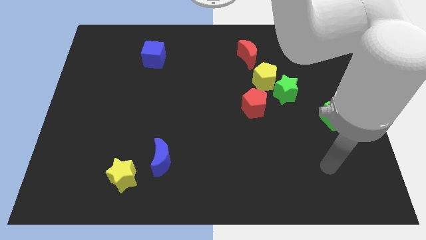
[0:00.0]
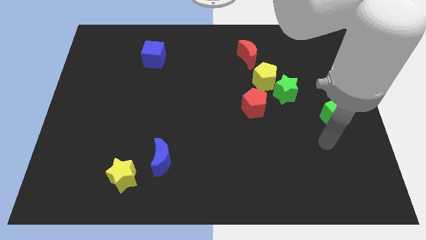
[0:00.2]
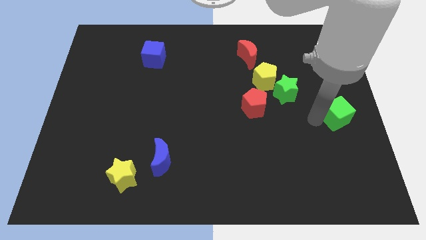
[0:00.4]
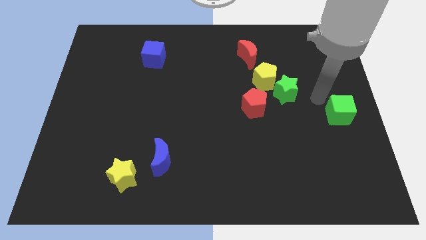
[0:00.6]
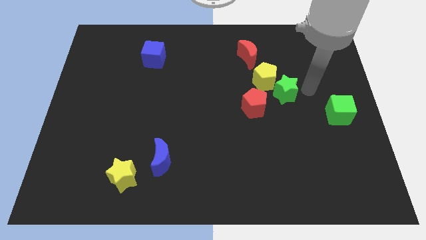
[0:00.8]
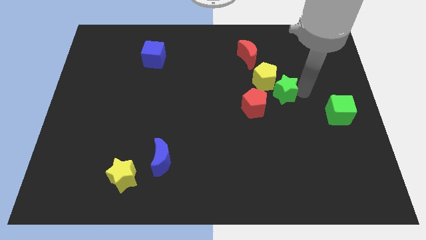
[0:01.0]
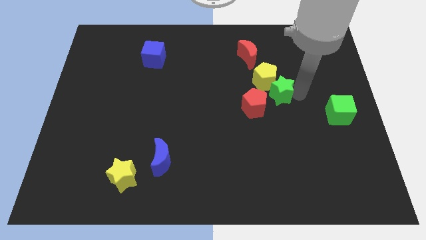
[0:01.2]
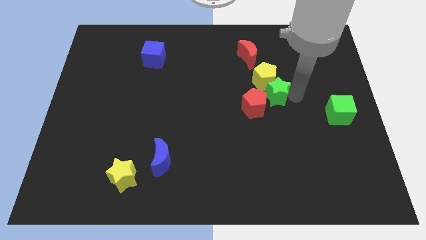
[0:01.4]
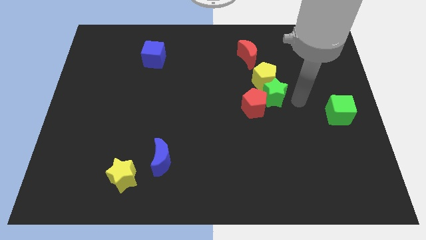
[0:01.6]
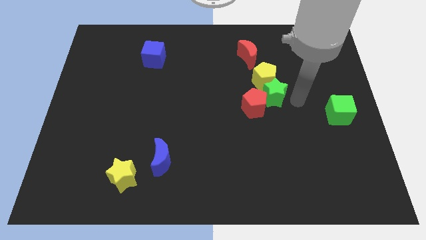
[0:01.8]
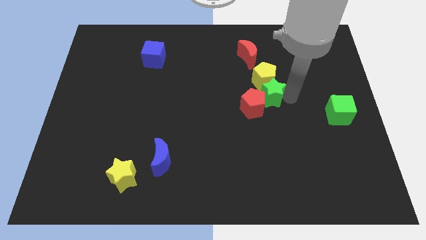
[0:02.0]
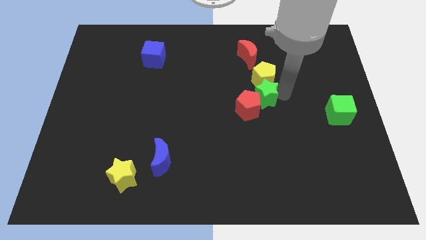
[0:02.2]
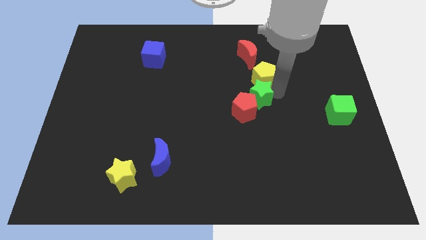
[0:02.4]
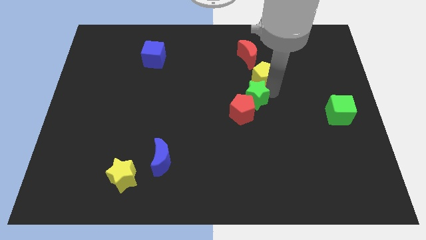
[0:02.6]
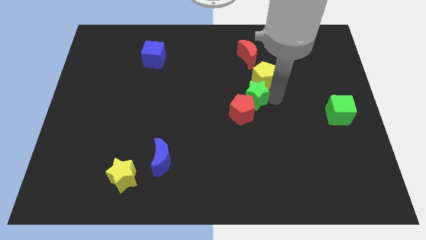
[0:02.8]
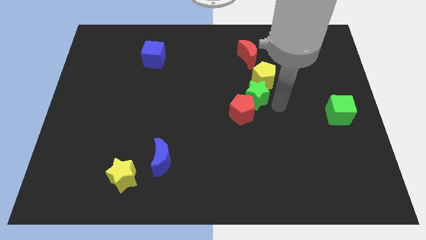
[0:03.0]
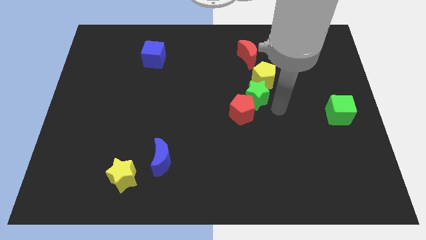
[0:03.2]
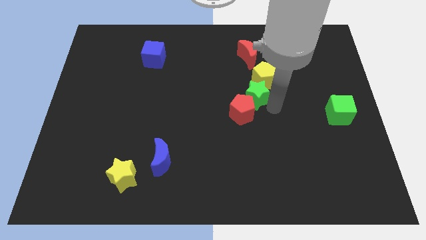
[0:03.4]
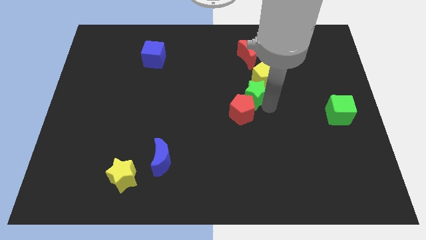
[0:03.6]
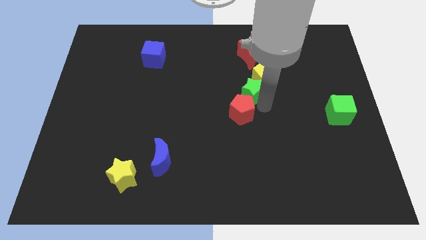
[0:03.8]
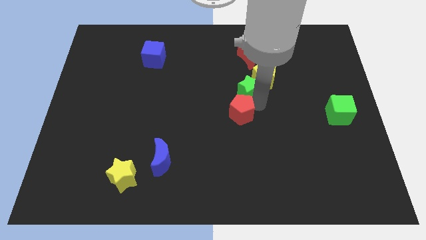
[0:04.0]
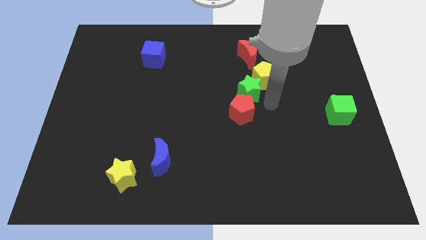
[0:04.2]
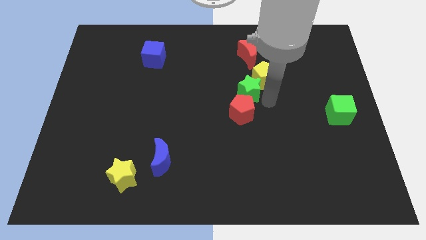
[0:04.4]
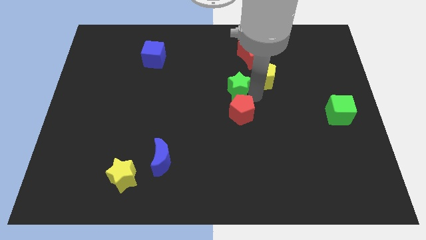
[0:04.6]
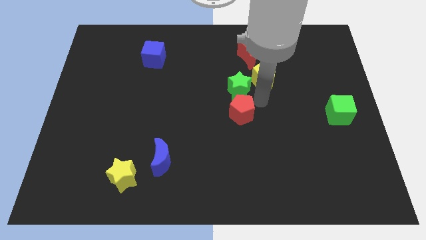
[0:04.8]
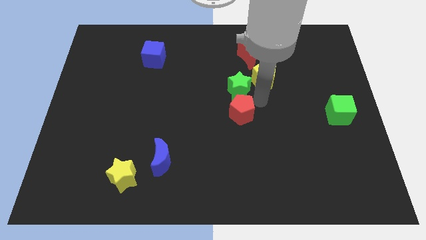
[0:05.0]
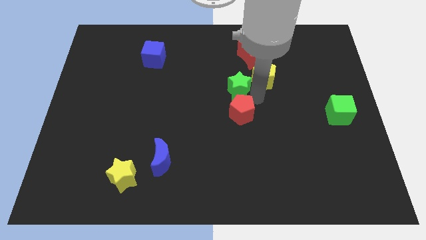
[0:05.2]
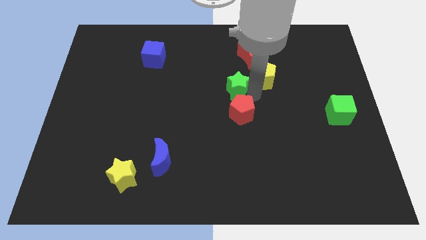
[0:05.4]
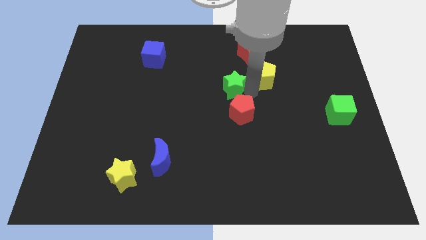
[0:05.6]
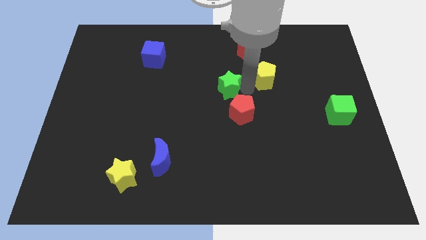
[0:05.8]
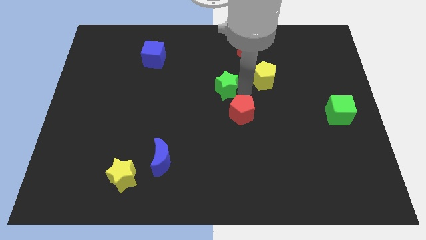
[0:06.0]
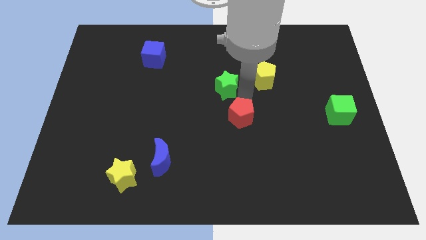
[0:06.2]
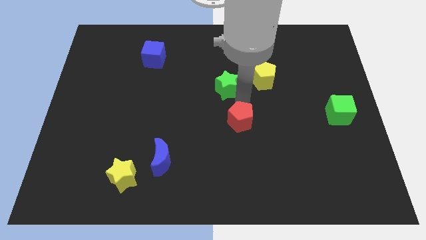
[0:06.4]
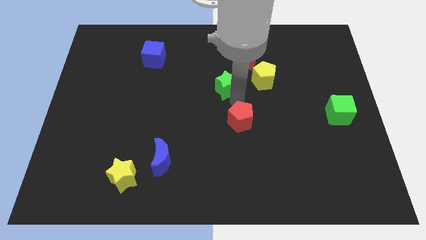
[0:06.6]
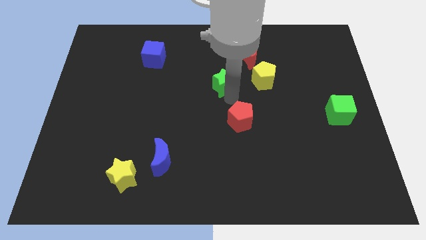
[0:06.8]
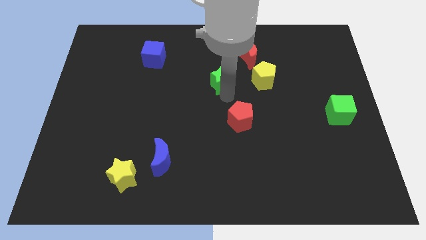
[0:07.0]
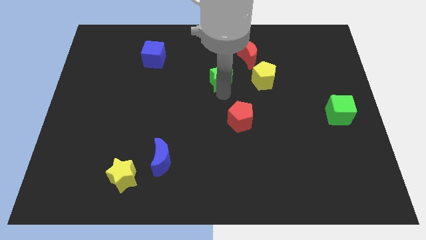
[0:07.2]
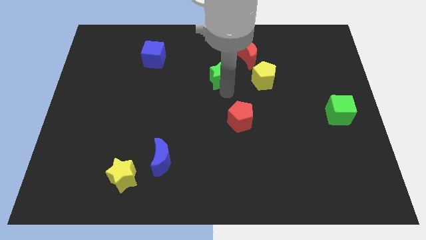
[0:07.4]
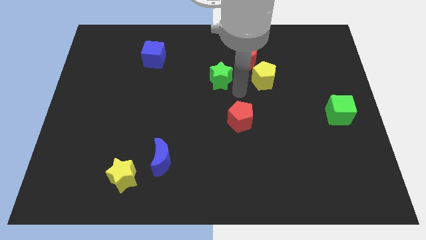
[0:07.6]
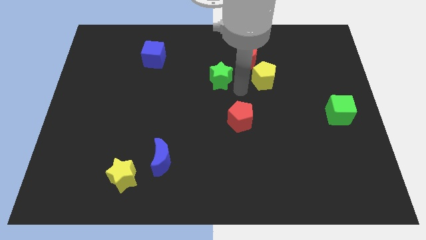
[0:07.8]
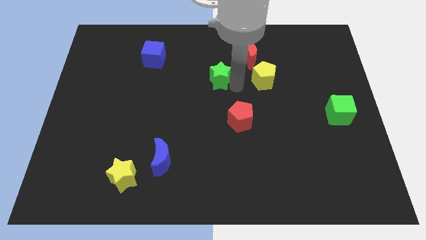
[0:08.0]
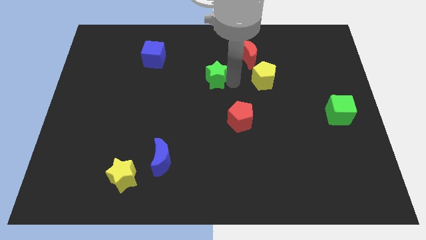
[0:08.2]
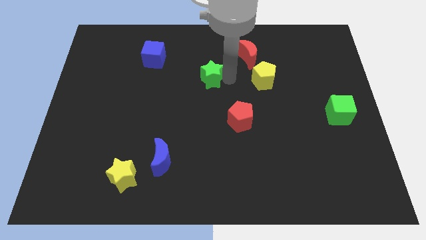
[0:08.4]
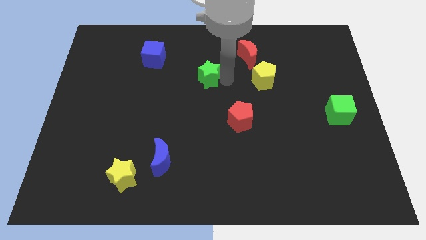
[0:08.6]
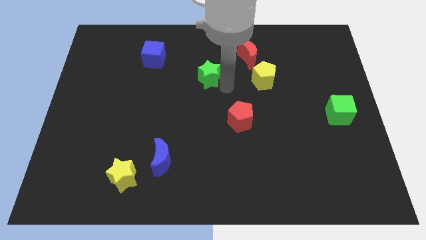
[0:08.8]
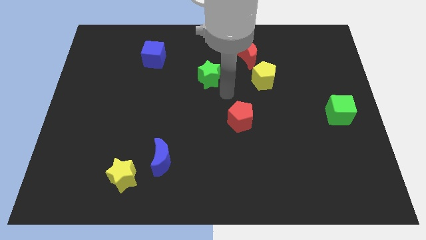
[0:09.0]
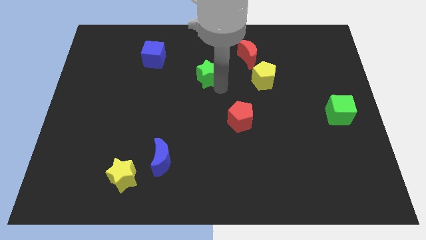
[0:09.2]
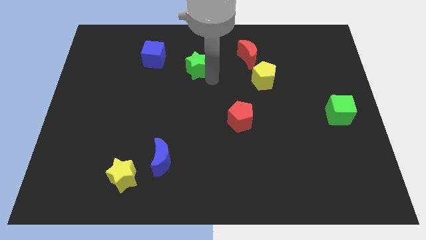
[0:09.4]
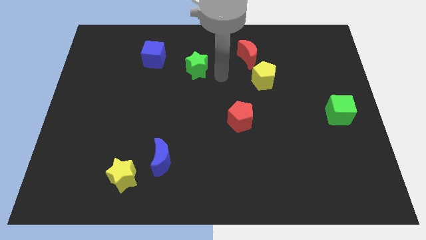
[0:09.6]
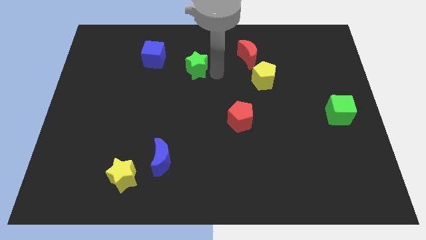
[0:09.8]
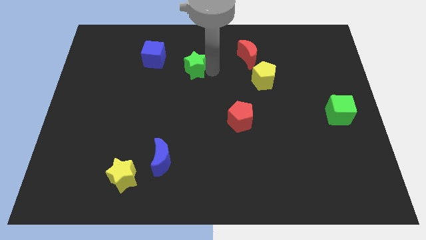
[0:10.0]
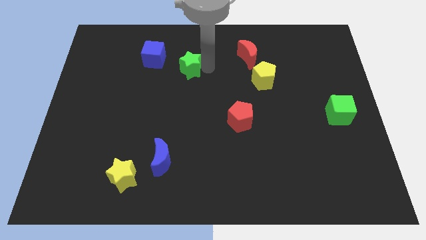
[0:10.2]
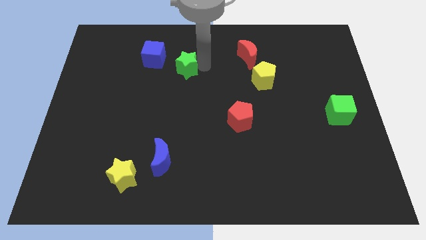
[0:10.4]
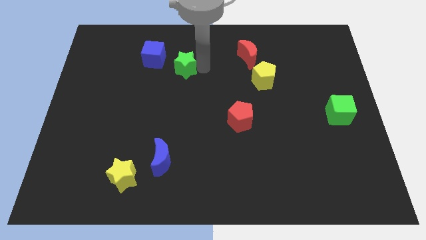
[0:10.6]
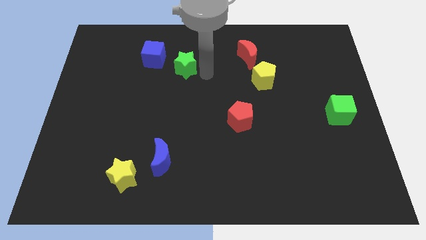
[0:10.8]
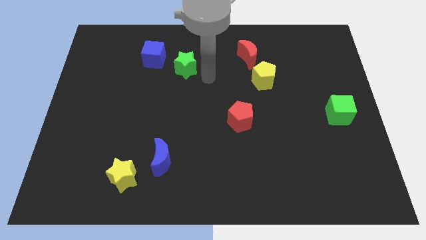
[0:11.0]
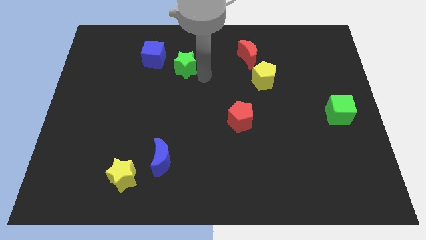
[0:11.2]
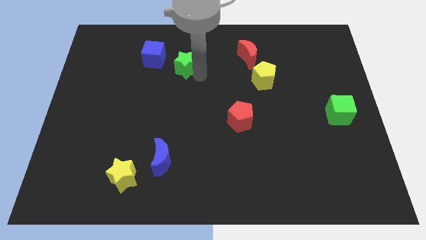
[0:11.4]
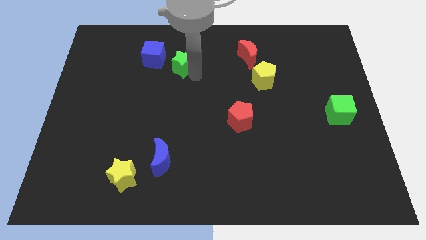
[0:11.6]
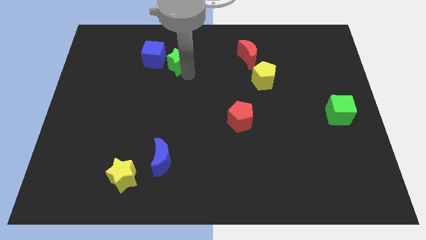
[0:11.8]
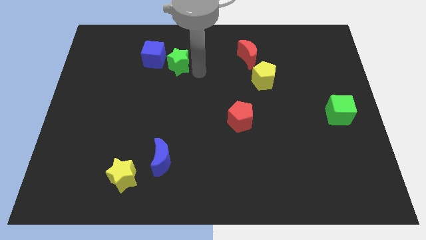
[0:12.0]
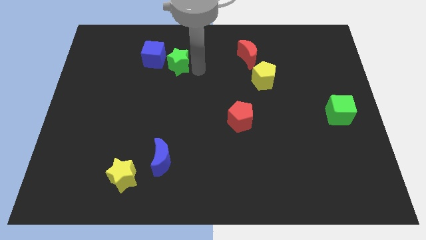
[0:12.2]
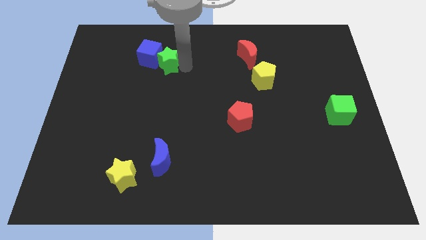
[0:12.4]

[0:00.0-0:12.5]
slide the green star next to the blue cube

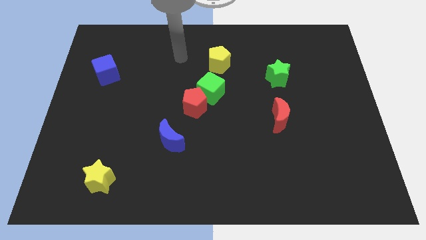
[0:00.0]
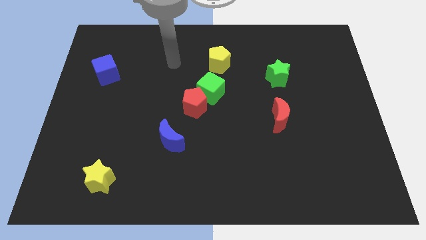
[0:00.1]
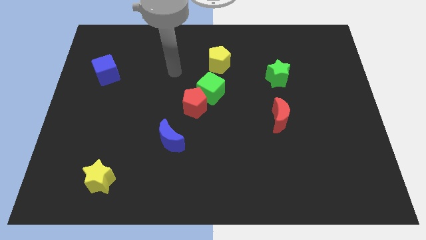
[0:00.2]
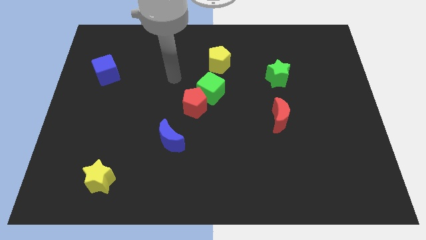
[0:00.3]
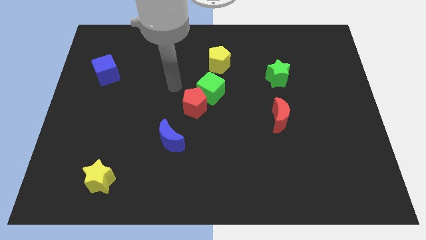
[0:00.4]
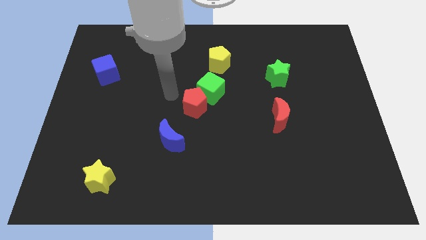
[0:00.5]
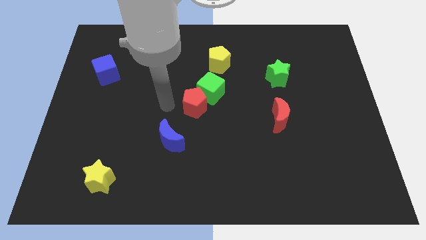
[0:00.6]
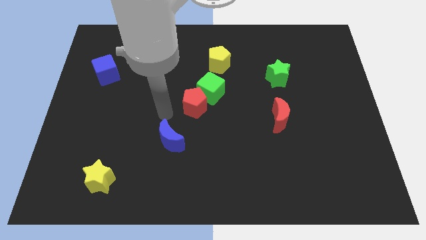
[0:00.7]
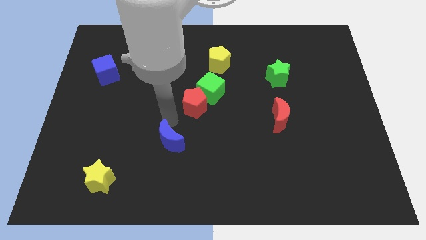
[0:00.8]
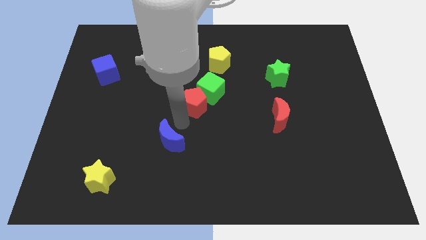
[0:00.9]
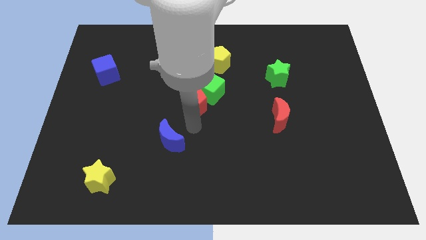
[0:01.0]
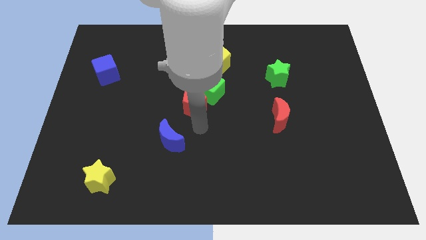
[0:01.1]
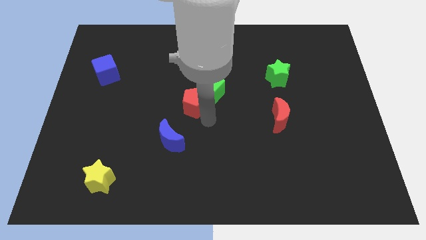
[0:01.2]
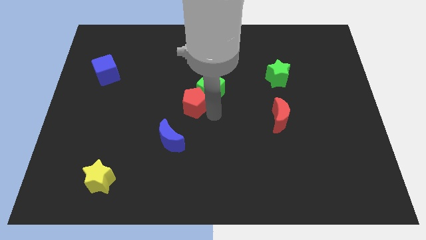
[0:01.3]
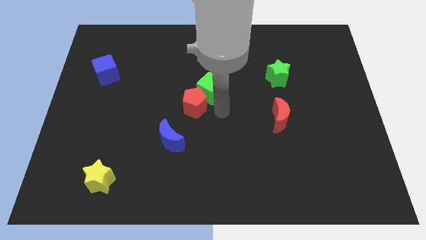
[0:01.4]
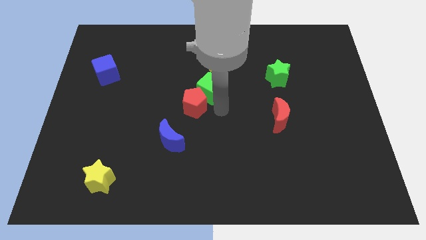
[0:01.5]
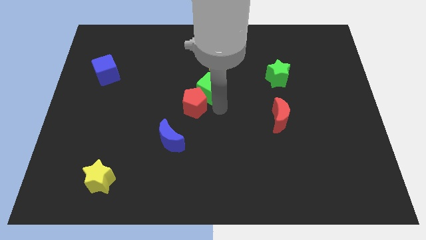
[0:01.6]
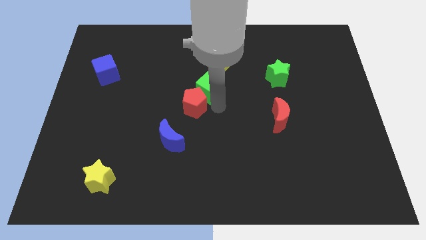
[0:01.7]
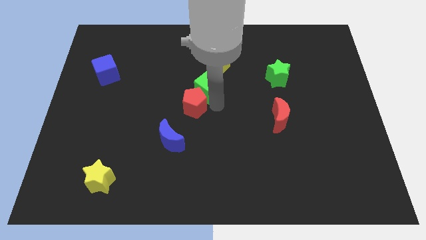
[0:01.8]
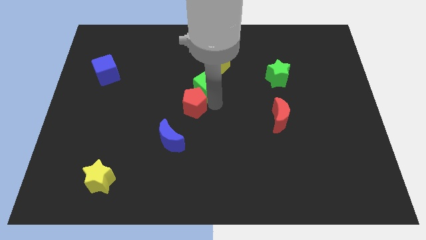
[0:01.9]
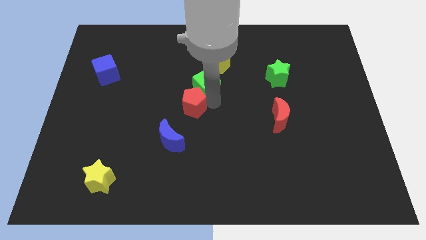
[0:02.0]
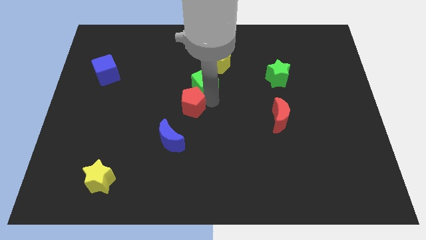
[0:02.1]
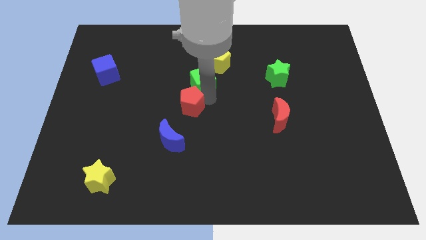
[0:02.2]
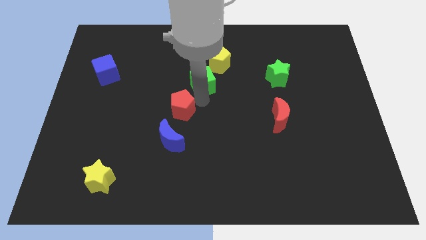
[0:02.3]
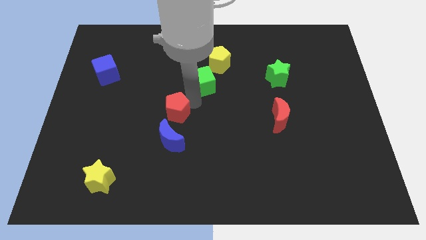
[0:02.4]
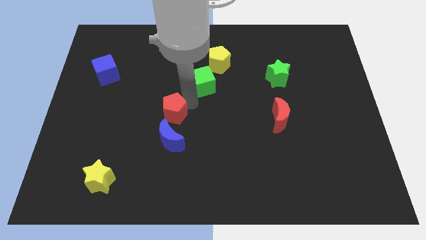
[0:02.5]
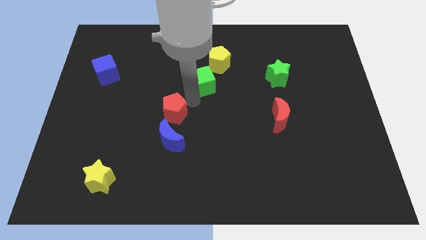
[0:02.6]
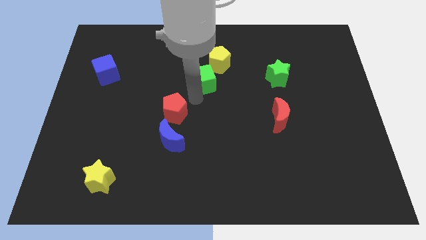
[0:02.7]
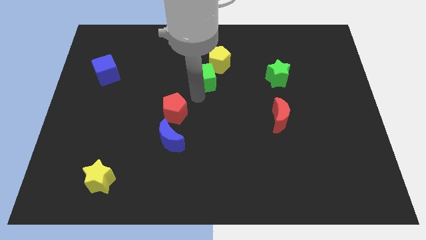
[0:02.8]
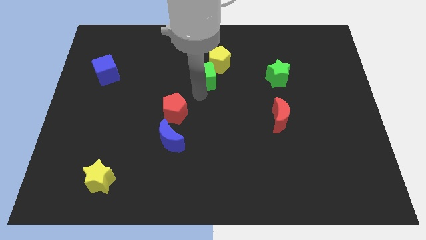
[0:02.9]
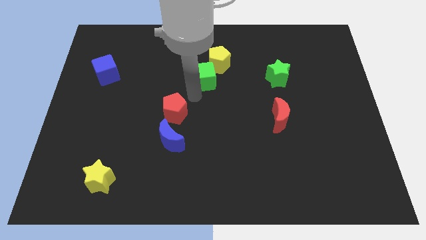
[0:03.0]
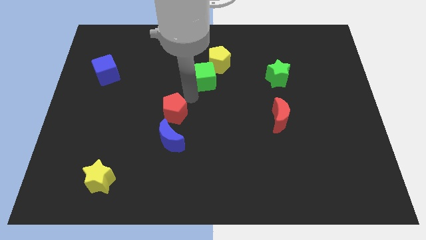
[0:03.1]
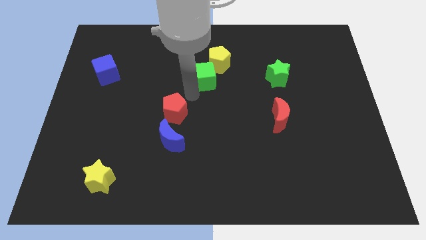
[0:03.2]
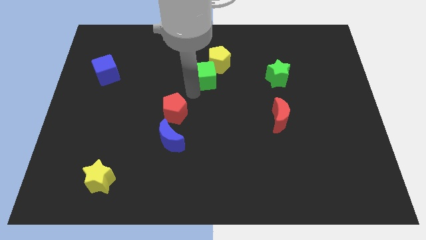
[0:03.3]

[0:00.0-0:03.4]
put the green cube to the yellow pentagon
